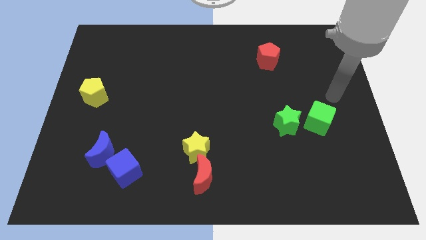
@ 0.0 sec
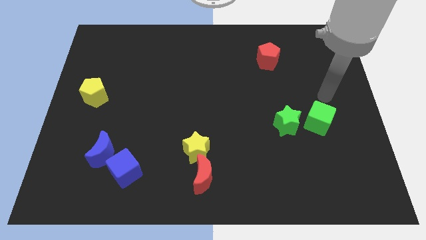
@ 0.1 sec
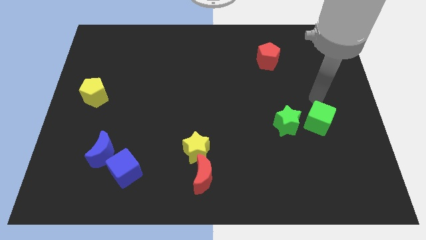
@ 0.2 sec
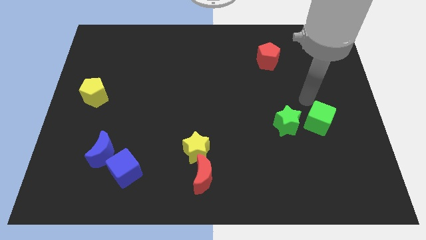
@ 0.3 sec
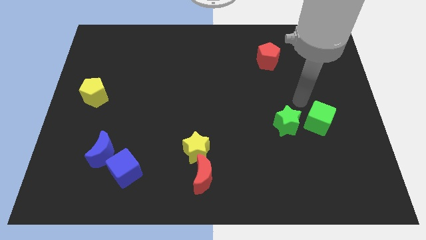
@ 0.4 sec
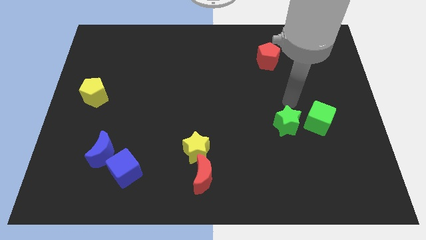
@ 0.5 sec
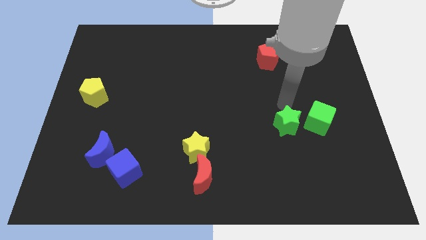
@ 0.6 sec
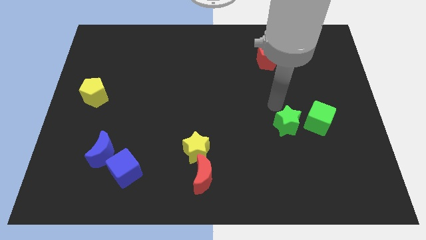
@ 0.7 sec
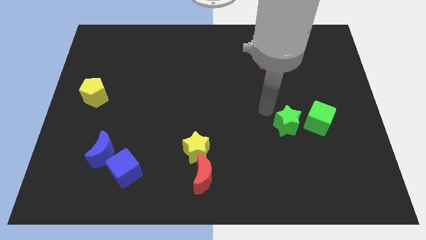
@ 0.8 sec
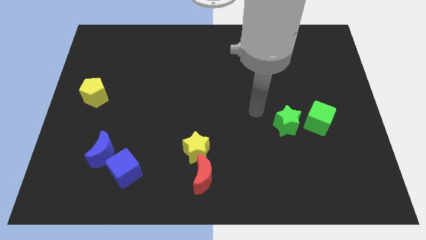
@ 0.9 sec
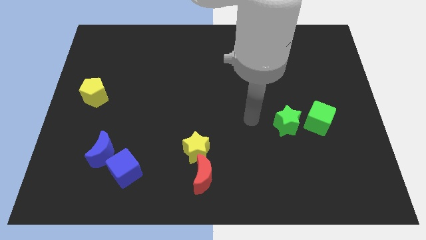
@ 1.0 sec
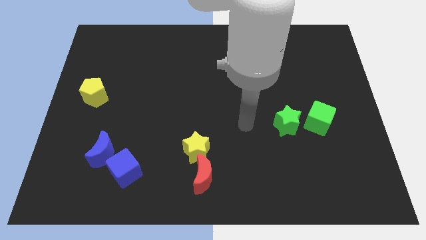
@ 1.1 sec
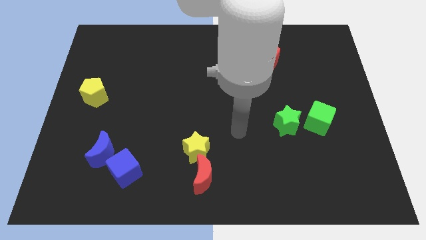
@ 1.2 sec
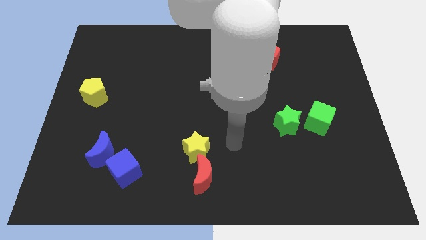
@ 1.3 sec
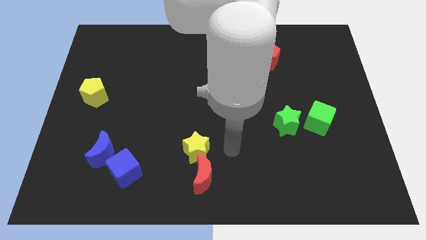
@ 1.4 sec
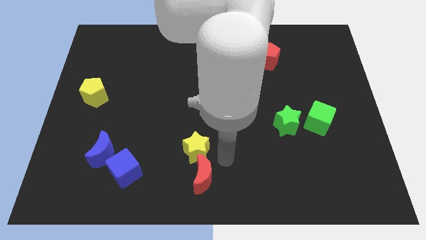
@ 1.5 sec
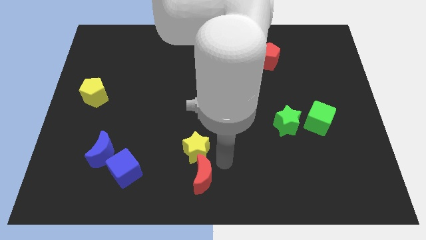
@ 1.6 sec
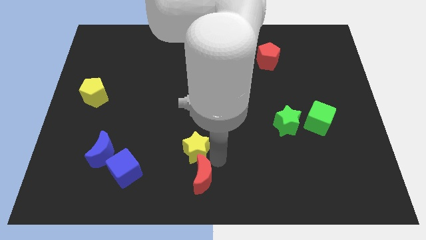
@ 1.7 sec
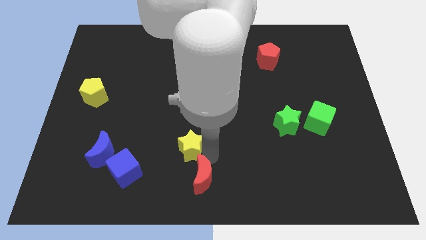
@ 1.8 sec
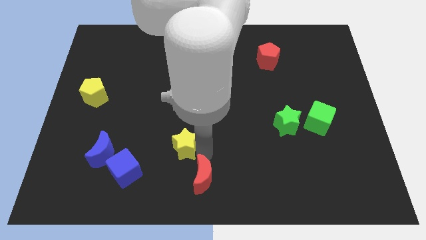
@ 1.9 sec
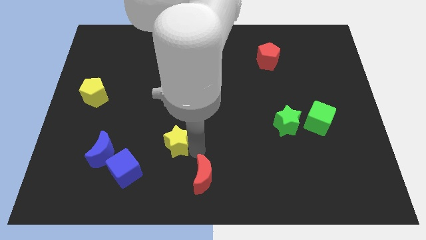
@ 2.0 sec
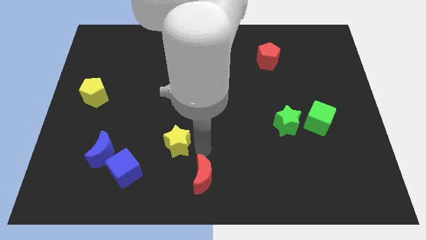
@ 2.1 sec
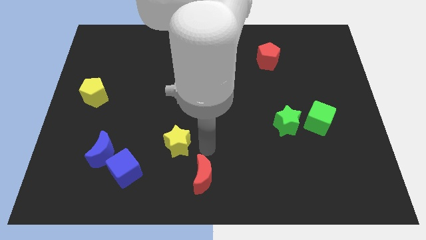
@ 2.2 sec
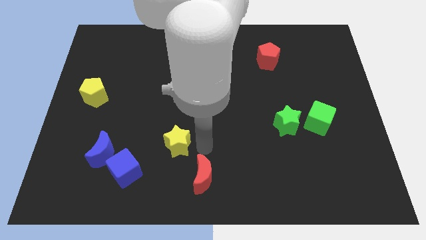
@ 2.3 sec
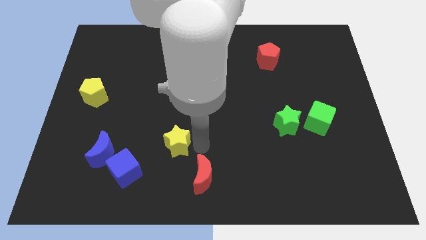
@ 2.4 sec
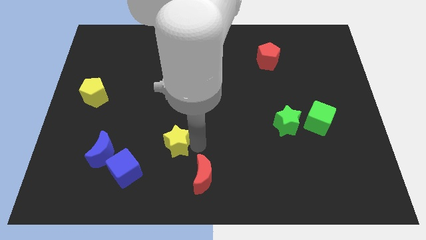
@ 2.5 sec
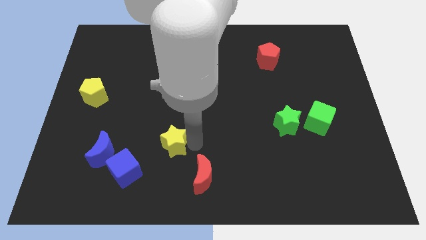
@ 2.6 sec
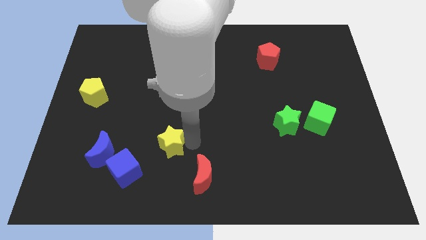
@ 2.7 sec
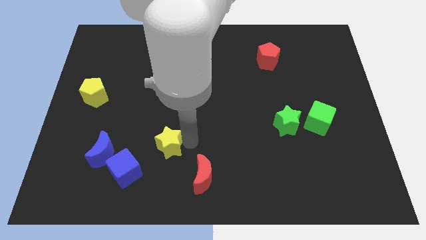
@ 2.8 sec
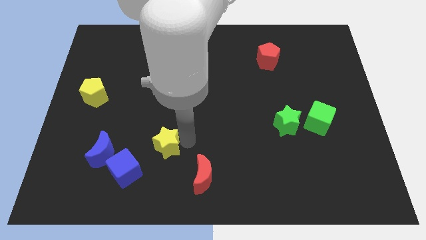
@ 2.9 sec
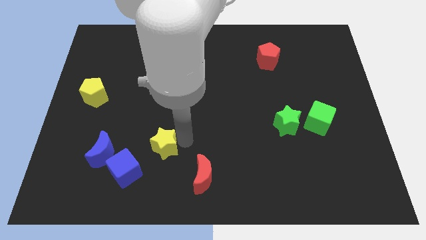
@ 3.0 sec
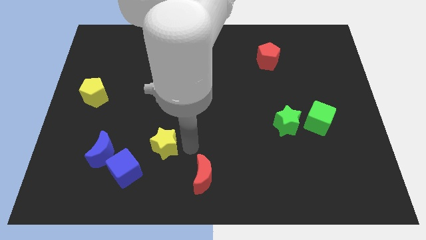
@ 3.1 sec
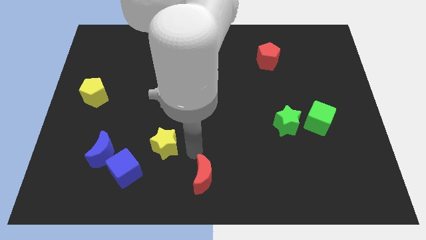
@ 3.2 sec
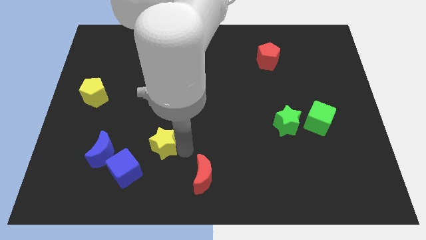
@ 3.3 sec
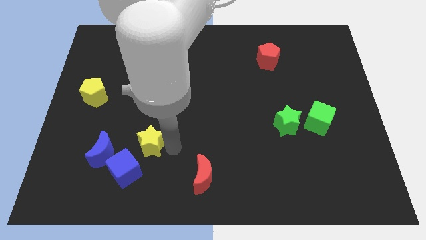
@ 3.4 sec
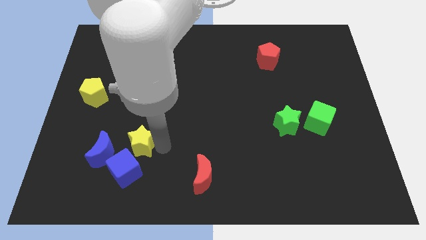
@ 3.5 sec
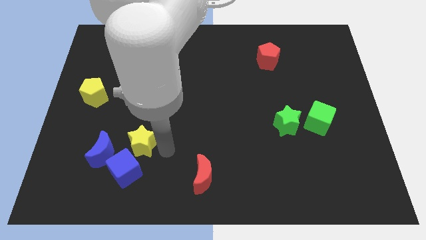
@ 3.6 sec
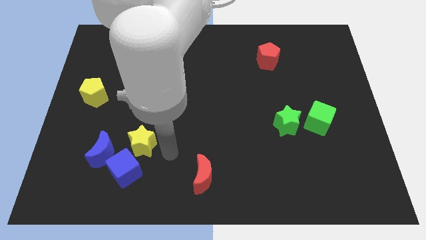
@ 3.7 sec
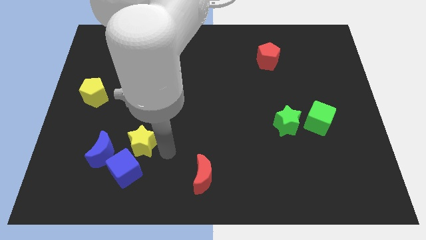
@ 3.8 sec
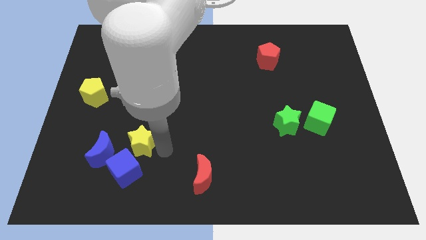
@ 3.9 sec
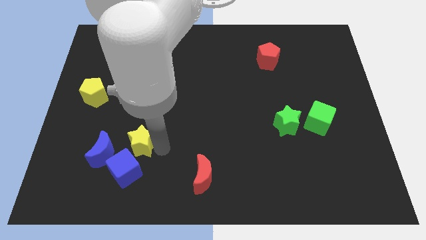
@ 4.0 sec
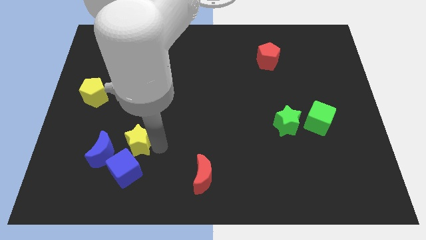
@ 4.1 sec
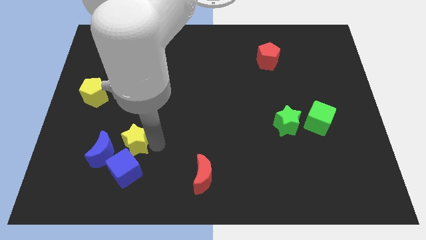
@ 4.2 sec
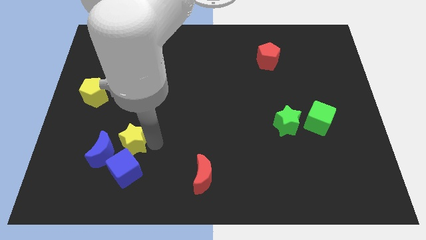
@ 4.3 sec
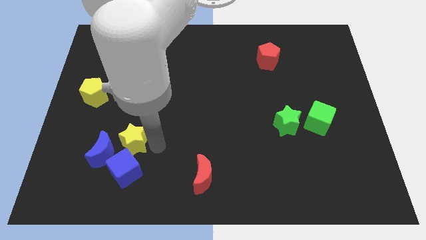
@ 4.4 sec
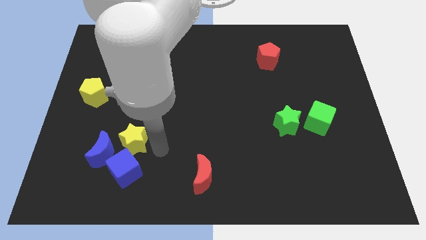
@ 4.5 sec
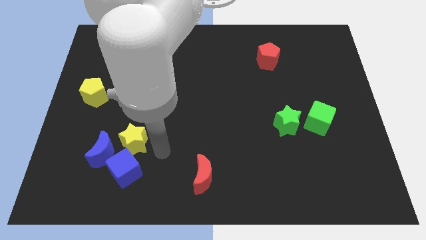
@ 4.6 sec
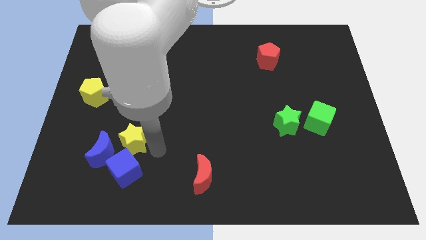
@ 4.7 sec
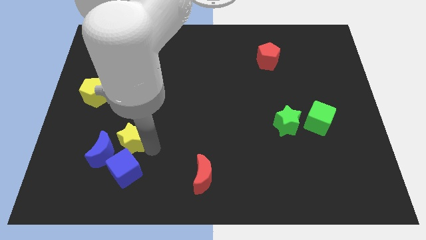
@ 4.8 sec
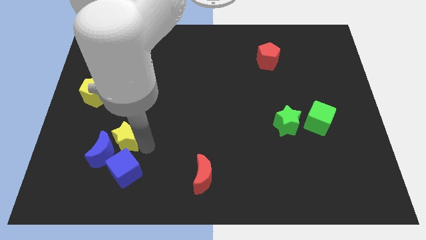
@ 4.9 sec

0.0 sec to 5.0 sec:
move the yellow star diagonally up and to the left of the blue cube

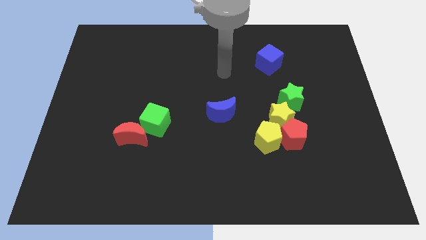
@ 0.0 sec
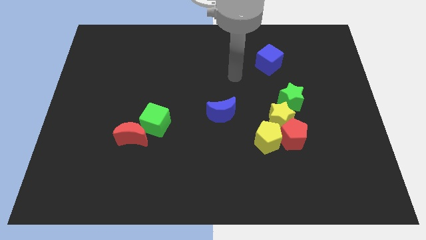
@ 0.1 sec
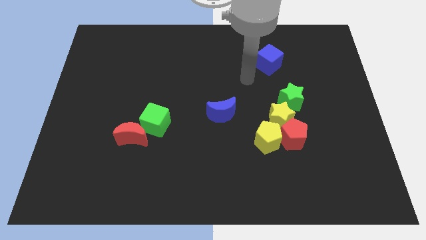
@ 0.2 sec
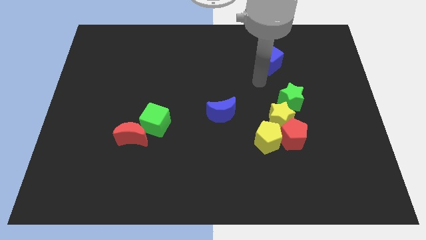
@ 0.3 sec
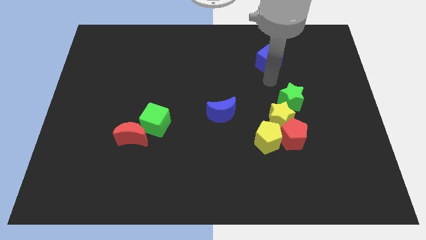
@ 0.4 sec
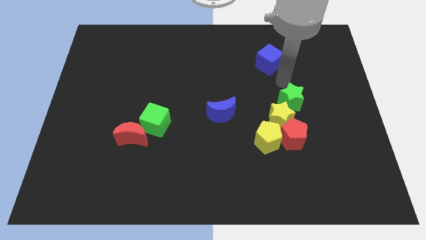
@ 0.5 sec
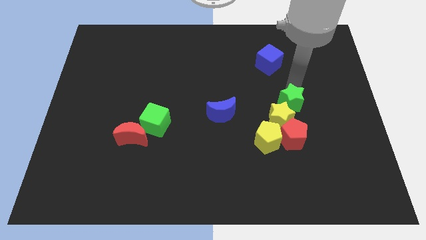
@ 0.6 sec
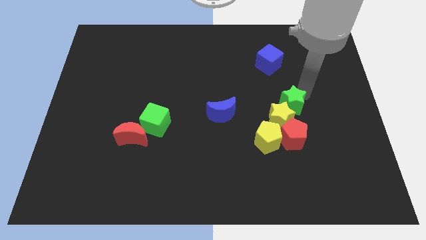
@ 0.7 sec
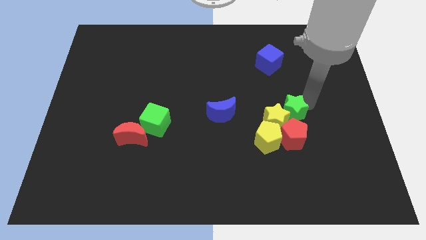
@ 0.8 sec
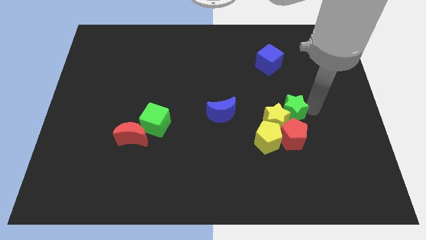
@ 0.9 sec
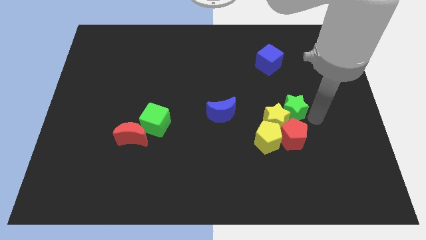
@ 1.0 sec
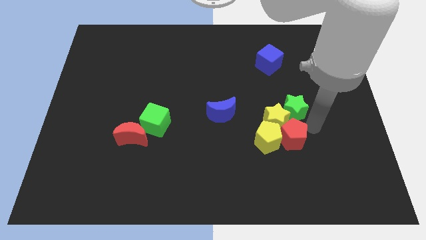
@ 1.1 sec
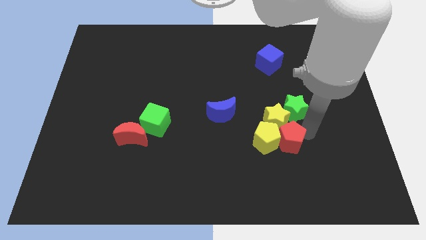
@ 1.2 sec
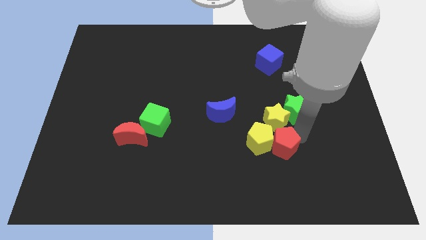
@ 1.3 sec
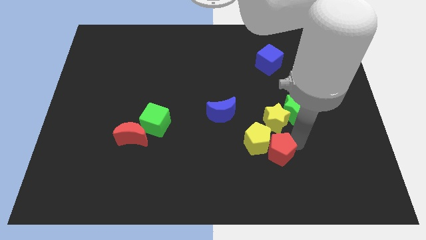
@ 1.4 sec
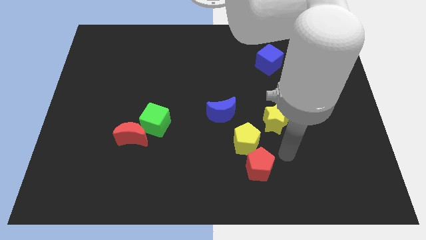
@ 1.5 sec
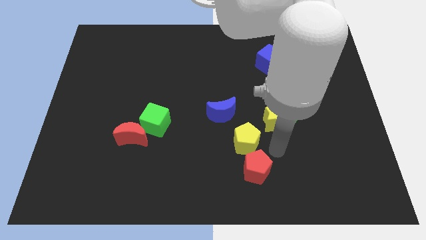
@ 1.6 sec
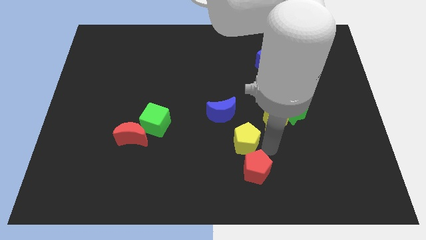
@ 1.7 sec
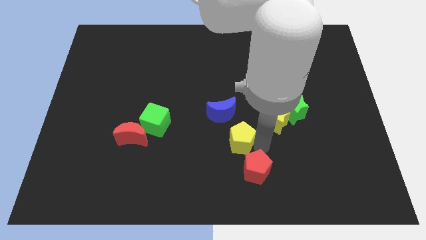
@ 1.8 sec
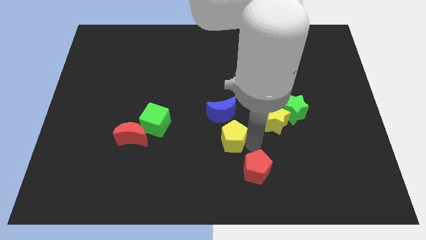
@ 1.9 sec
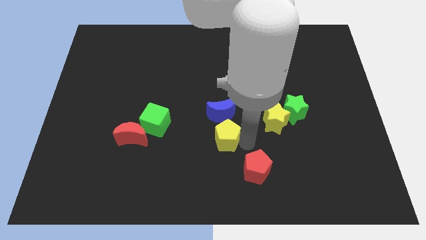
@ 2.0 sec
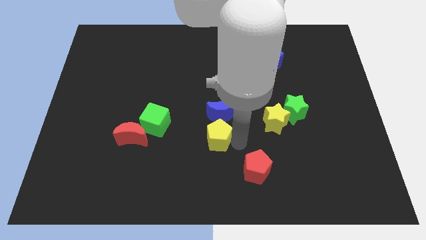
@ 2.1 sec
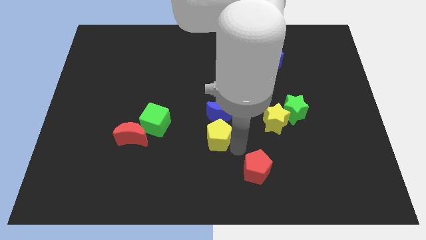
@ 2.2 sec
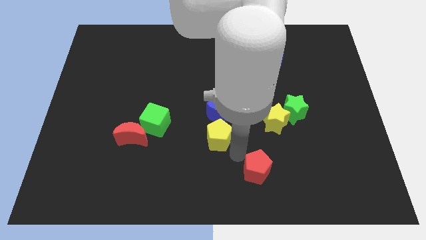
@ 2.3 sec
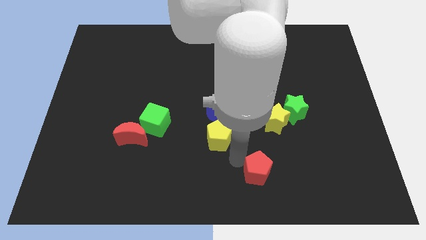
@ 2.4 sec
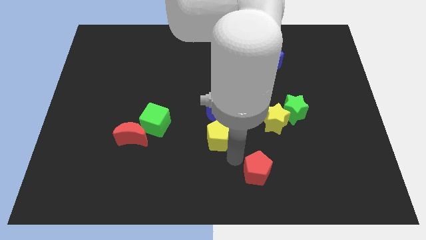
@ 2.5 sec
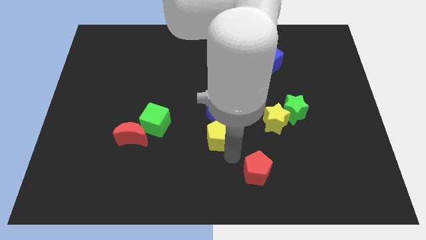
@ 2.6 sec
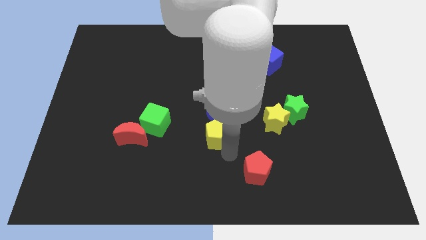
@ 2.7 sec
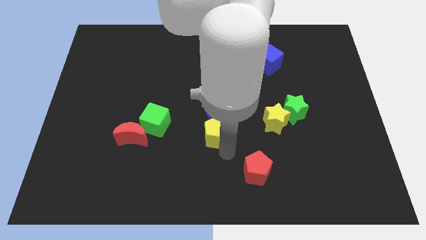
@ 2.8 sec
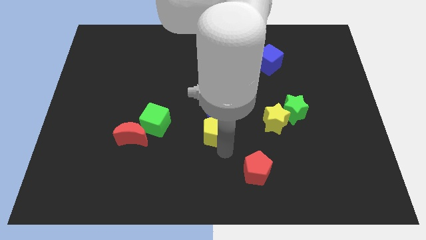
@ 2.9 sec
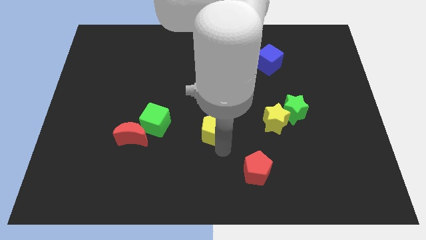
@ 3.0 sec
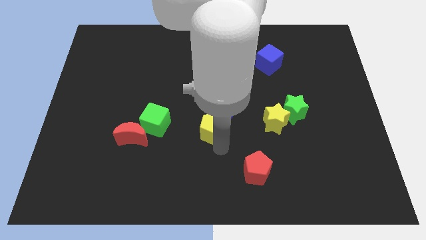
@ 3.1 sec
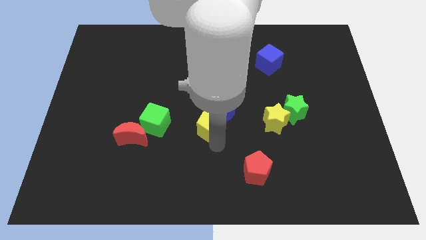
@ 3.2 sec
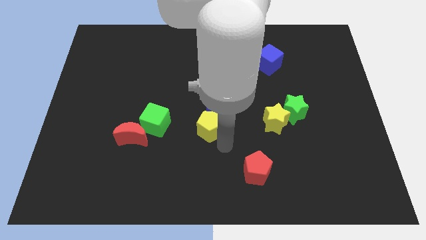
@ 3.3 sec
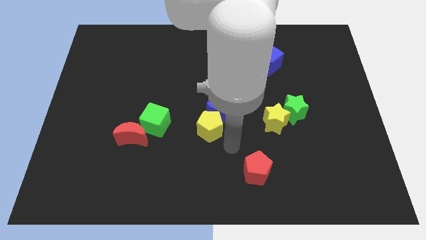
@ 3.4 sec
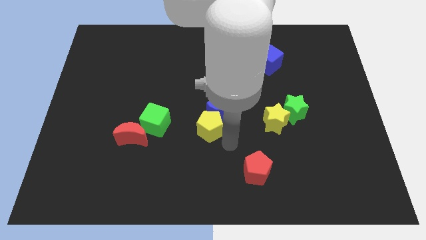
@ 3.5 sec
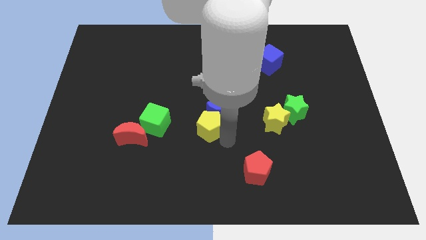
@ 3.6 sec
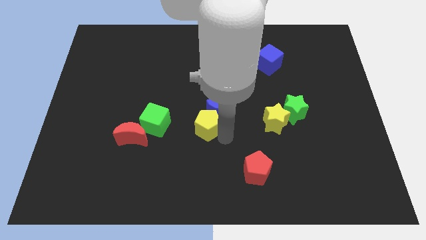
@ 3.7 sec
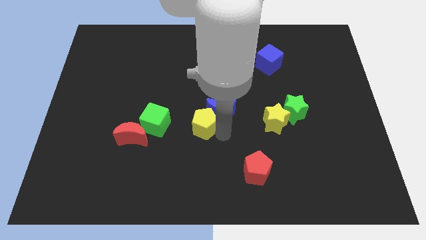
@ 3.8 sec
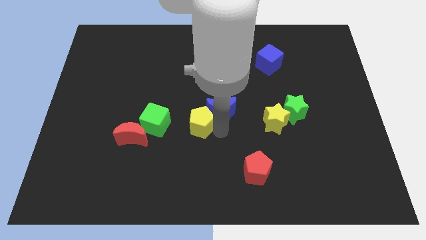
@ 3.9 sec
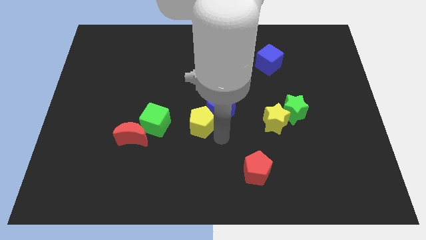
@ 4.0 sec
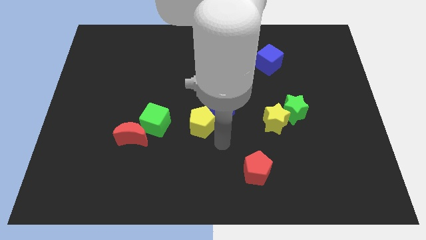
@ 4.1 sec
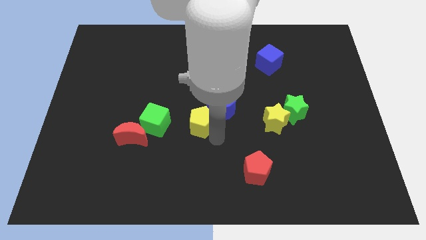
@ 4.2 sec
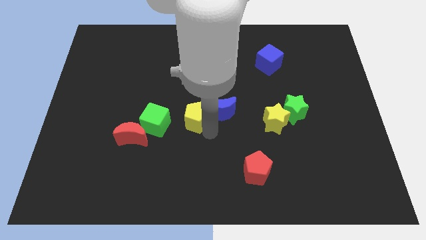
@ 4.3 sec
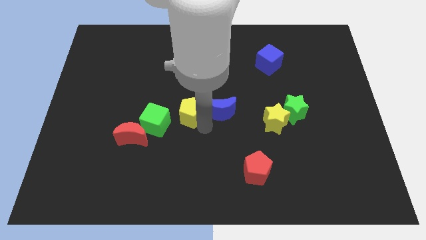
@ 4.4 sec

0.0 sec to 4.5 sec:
put the yellow pentagon to the top right side of the green cube
